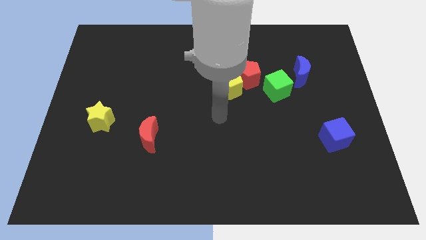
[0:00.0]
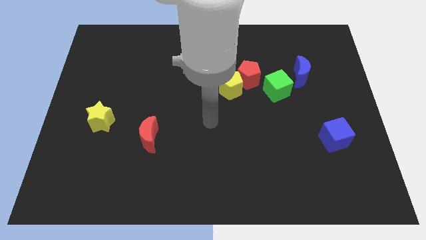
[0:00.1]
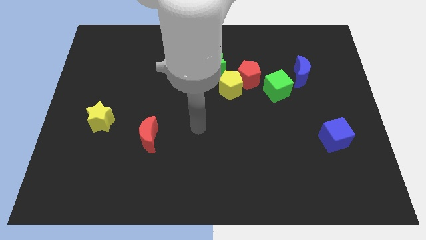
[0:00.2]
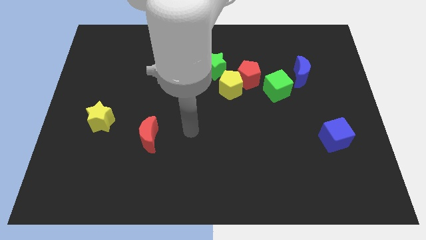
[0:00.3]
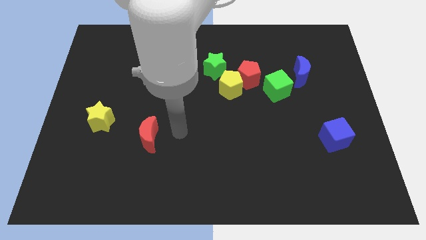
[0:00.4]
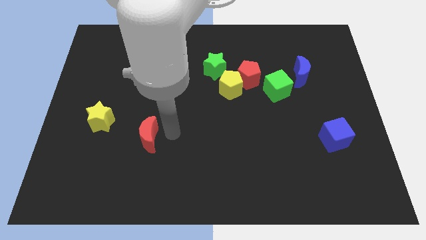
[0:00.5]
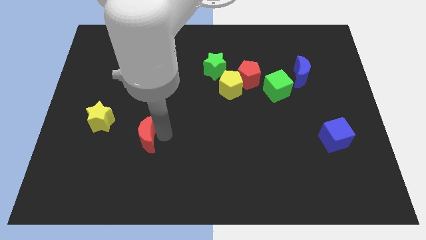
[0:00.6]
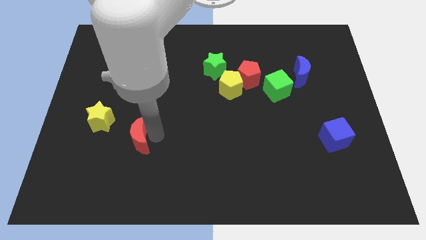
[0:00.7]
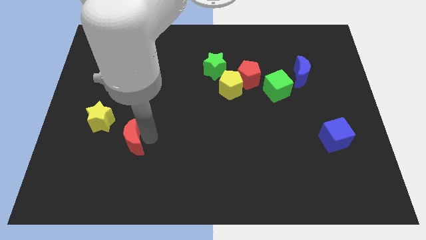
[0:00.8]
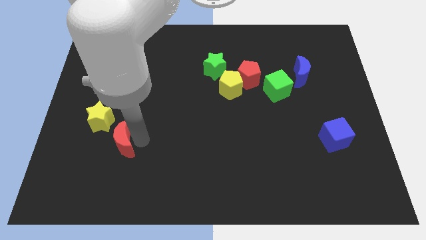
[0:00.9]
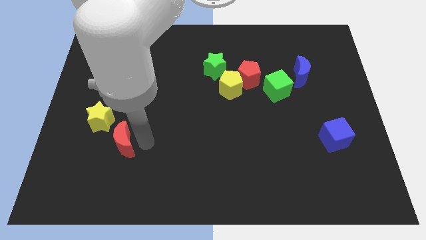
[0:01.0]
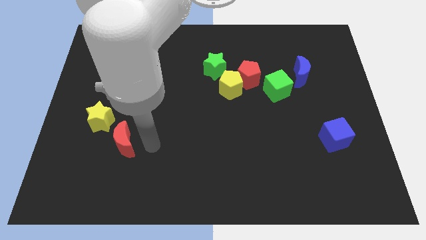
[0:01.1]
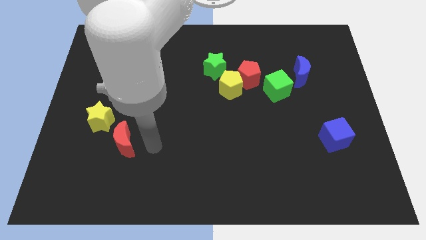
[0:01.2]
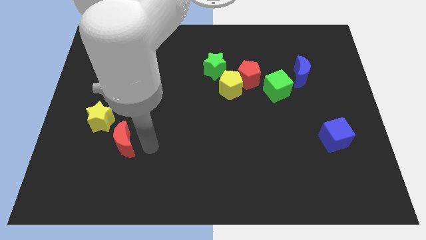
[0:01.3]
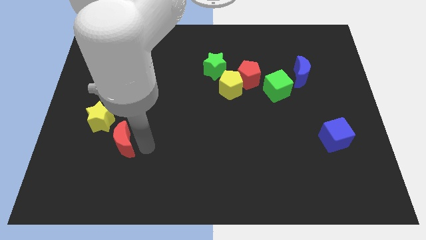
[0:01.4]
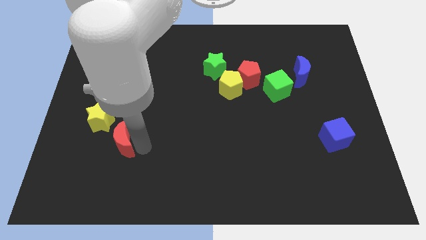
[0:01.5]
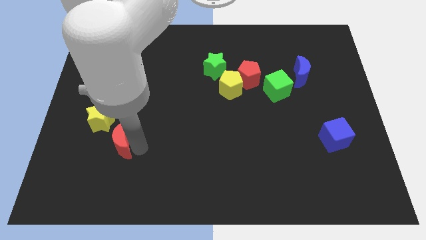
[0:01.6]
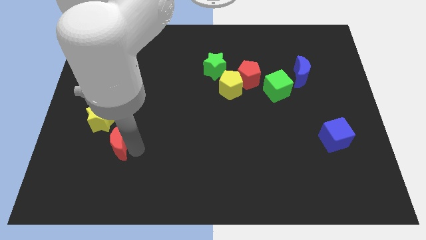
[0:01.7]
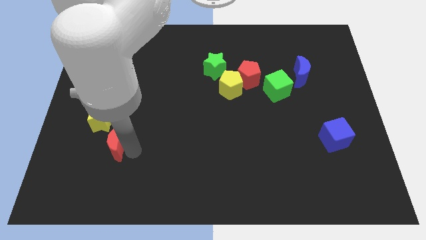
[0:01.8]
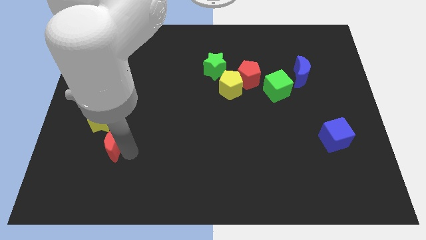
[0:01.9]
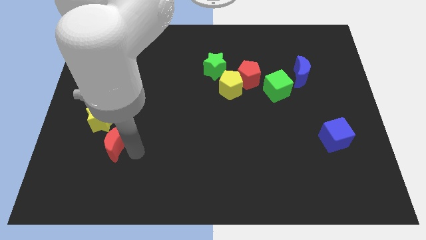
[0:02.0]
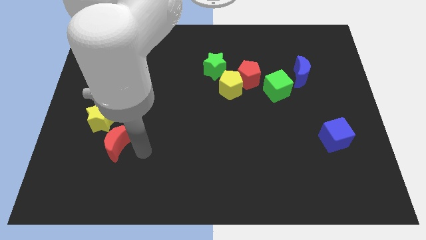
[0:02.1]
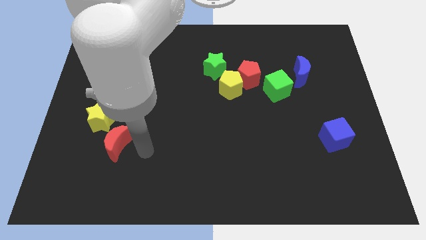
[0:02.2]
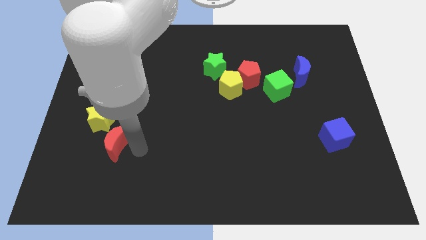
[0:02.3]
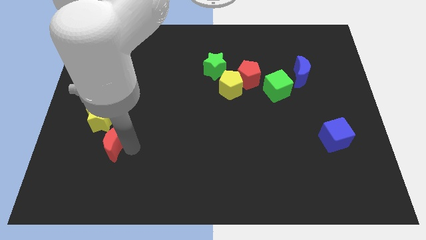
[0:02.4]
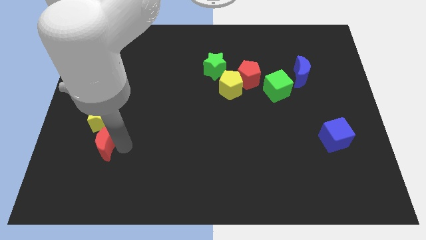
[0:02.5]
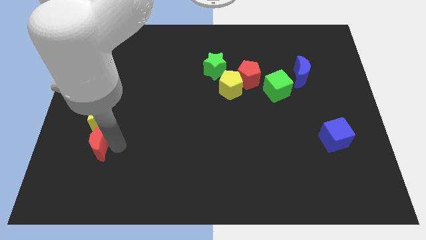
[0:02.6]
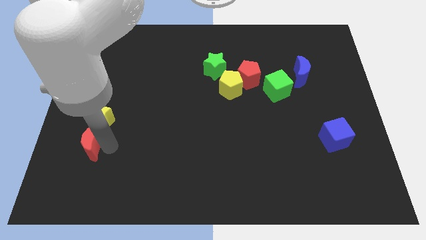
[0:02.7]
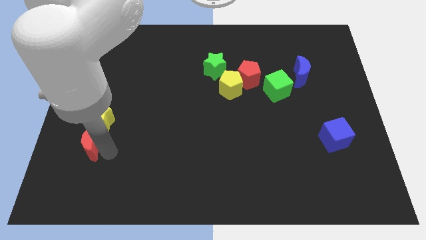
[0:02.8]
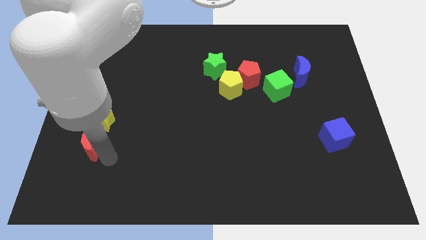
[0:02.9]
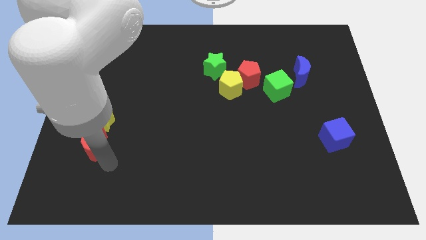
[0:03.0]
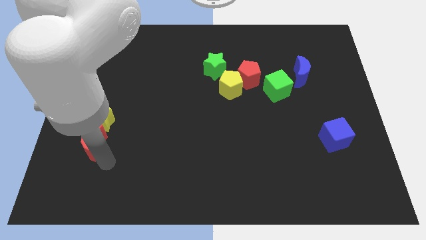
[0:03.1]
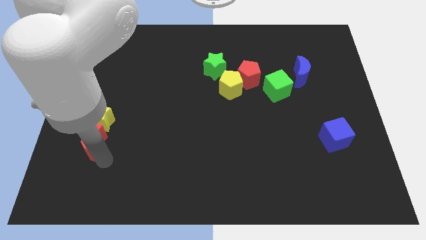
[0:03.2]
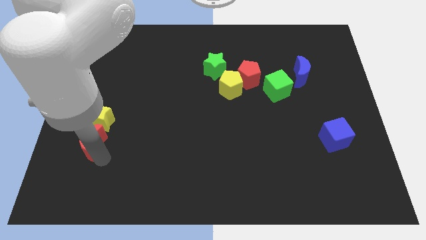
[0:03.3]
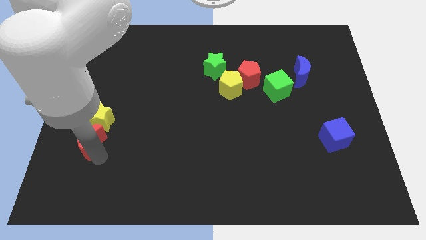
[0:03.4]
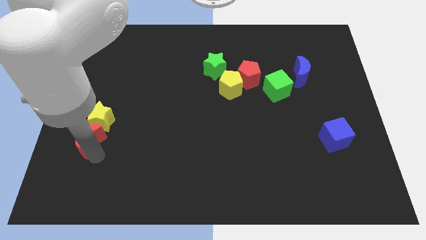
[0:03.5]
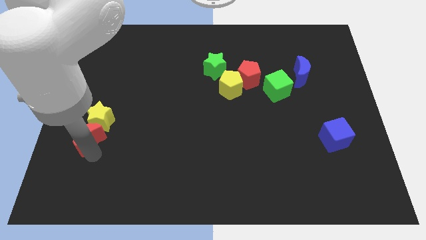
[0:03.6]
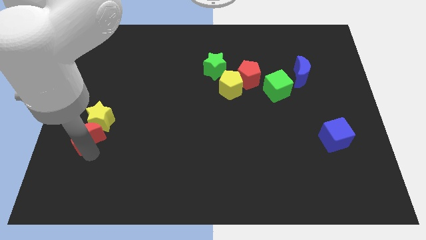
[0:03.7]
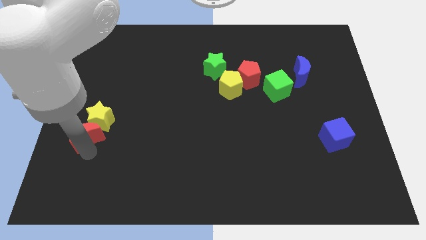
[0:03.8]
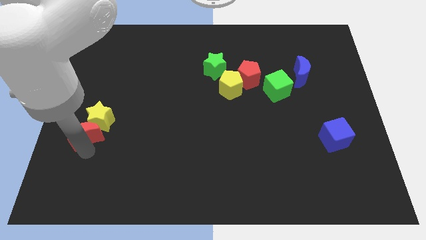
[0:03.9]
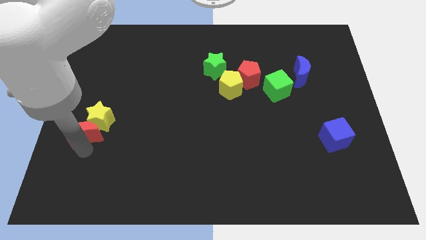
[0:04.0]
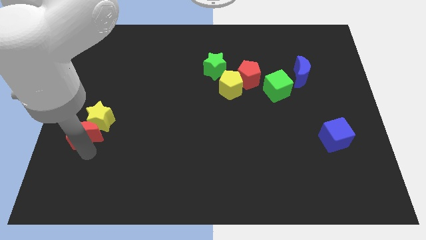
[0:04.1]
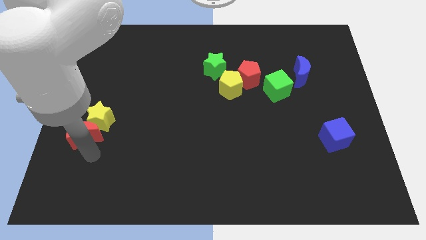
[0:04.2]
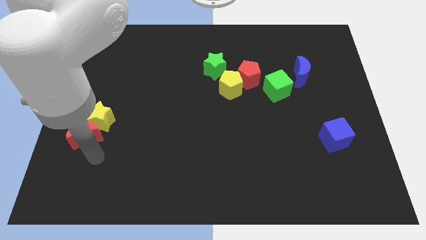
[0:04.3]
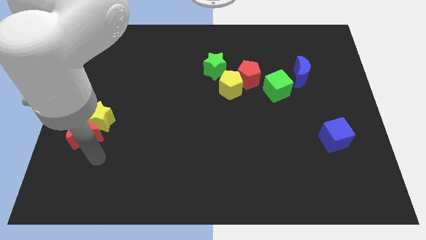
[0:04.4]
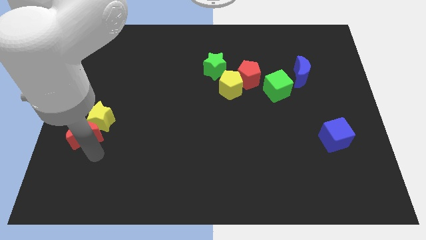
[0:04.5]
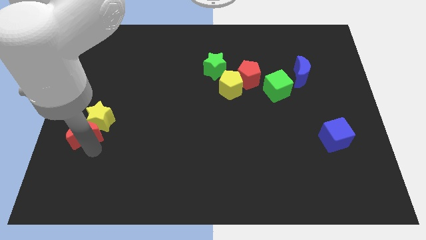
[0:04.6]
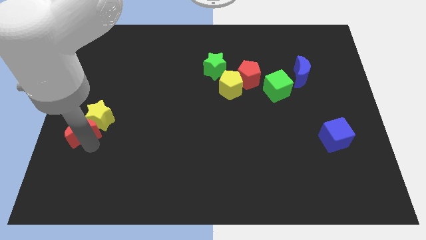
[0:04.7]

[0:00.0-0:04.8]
push the red moon to the left side

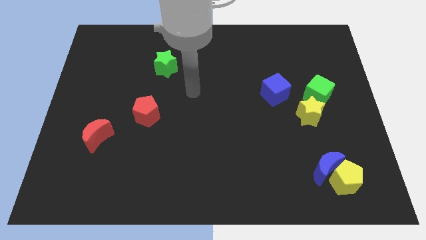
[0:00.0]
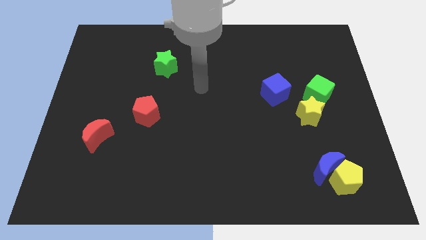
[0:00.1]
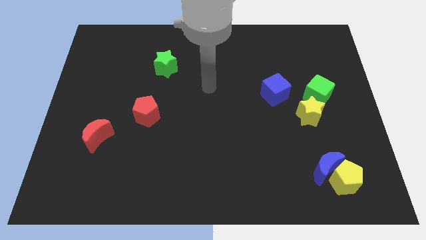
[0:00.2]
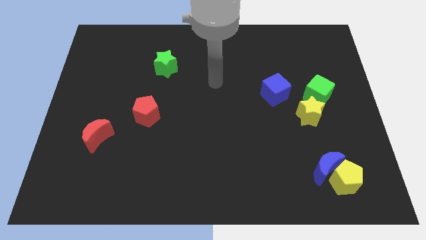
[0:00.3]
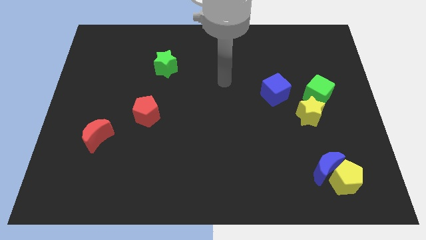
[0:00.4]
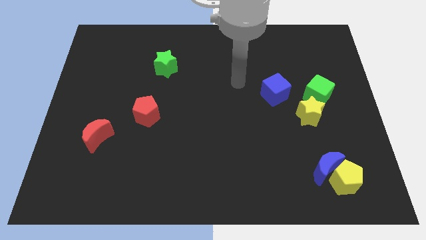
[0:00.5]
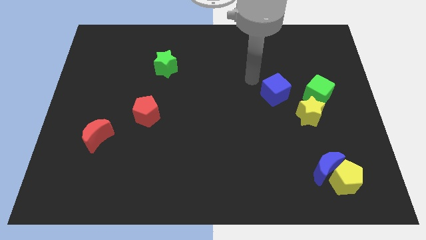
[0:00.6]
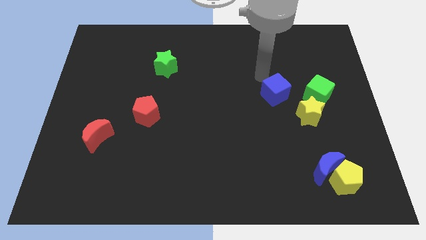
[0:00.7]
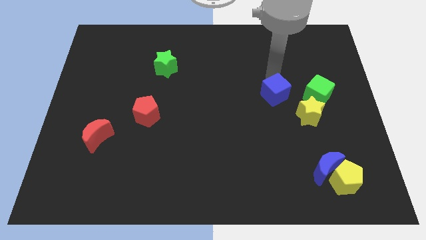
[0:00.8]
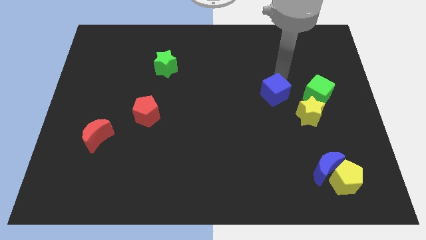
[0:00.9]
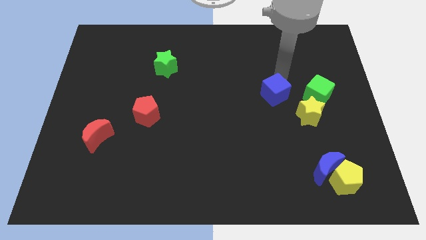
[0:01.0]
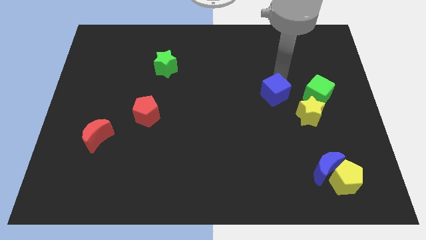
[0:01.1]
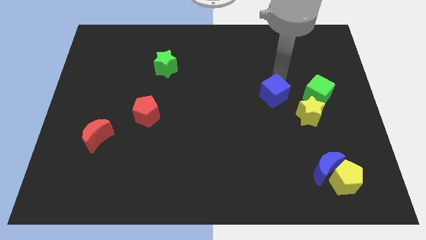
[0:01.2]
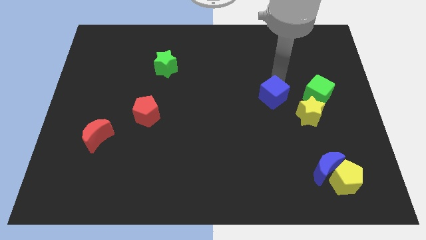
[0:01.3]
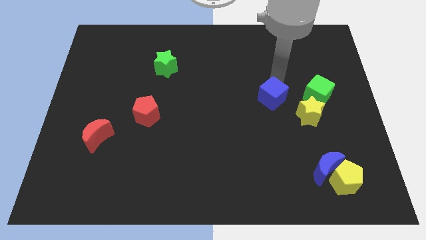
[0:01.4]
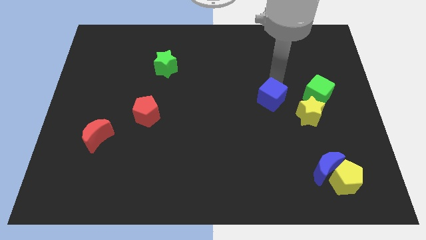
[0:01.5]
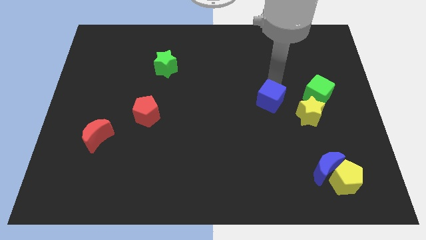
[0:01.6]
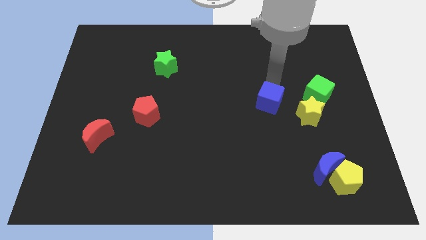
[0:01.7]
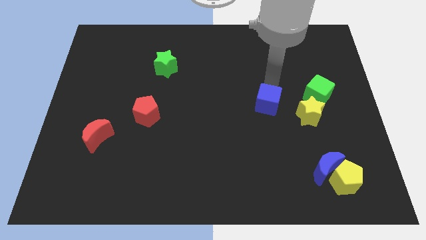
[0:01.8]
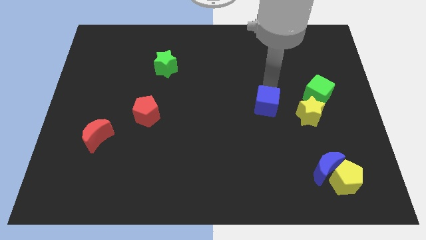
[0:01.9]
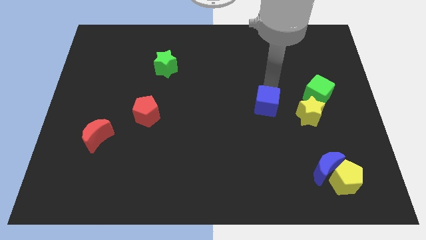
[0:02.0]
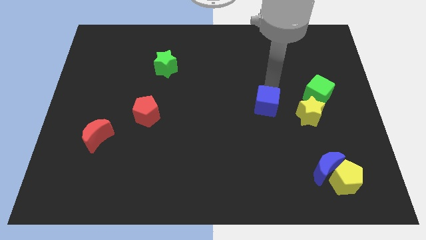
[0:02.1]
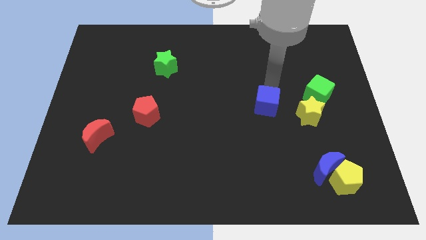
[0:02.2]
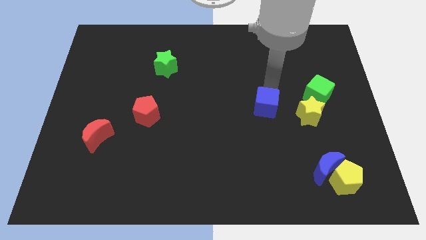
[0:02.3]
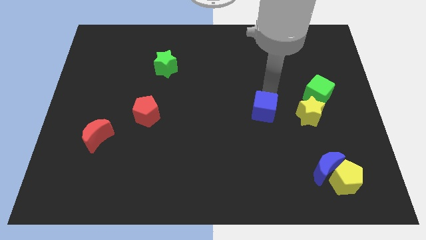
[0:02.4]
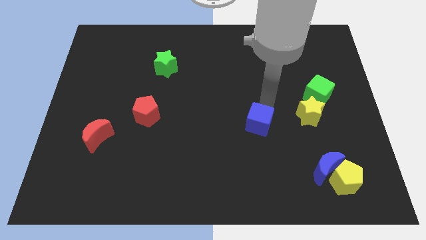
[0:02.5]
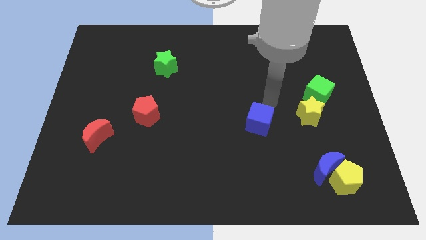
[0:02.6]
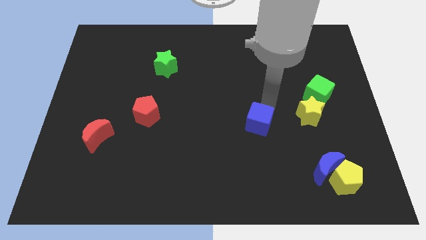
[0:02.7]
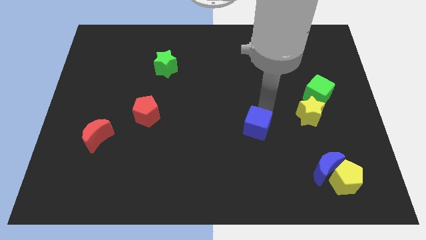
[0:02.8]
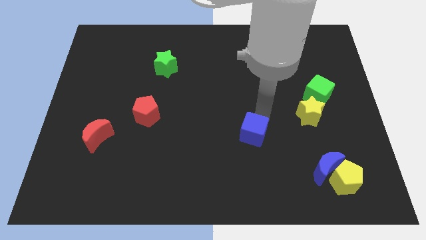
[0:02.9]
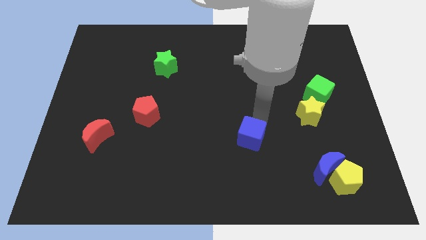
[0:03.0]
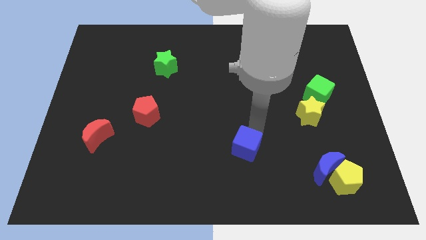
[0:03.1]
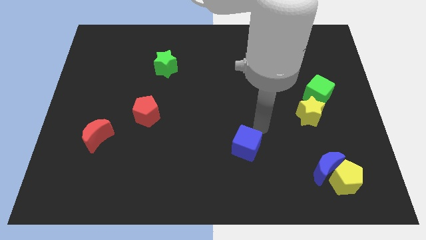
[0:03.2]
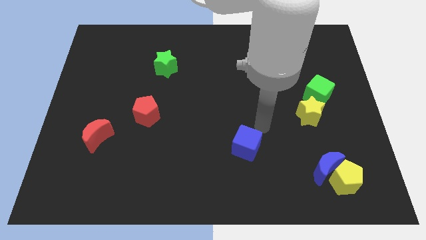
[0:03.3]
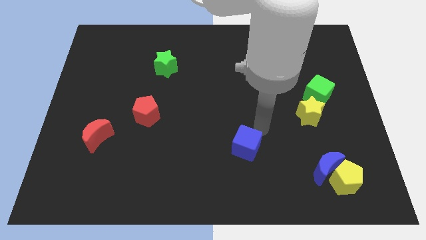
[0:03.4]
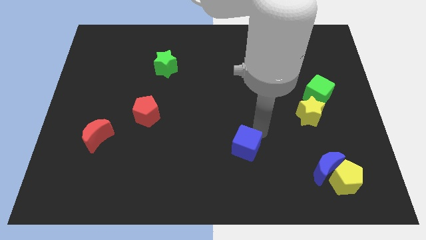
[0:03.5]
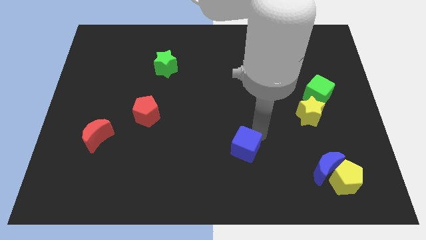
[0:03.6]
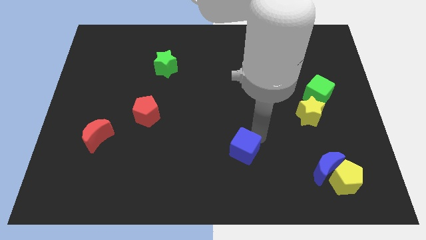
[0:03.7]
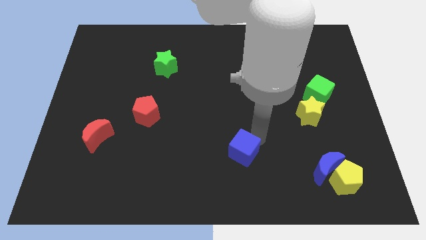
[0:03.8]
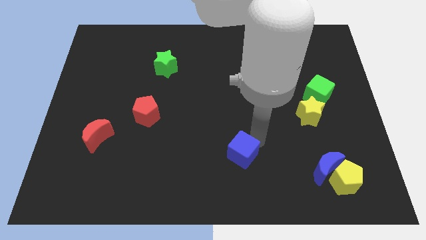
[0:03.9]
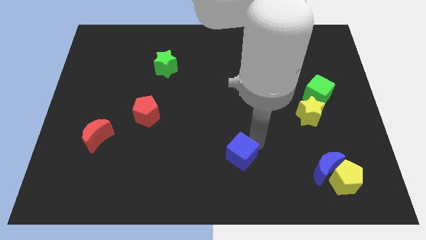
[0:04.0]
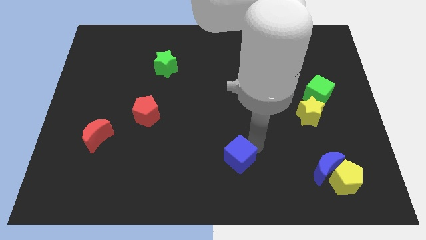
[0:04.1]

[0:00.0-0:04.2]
slide the blue cube to the bottom
